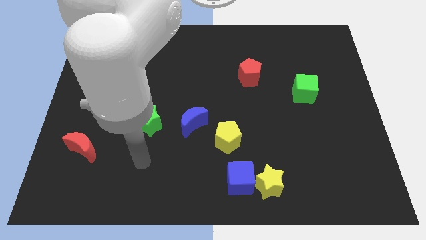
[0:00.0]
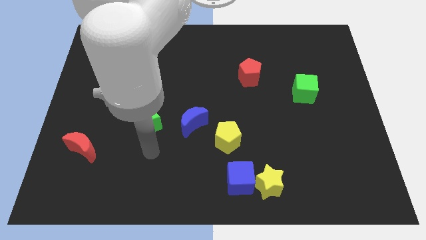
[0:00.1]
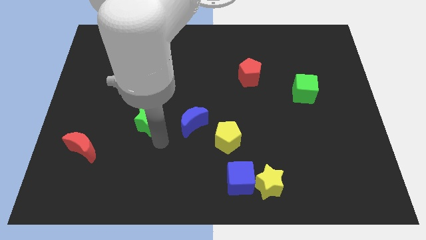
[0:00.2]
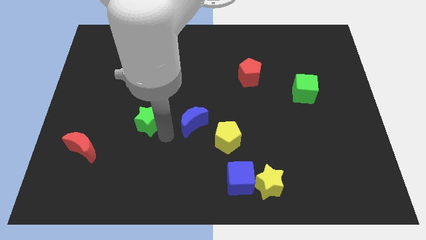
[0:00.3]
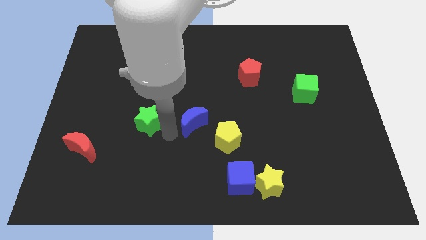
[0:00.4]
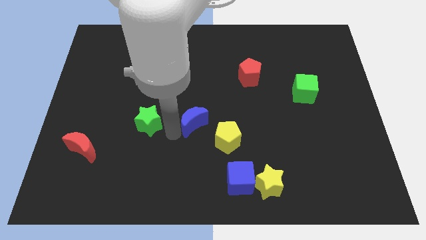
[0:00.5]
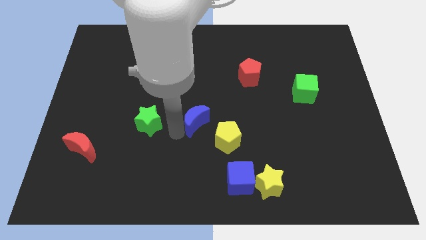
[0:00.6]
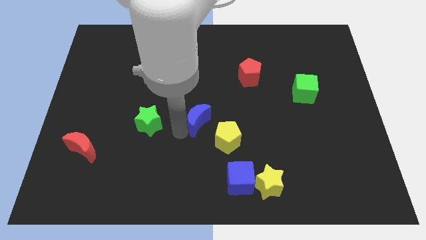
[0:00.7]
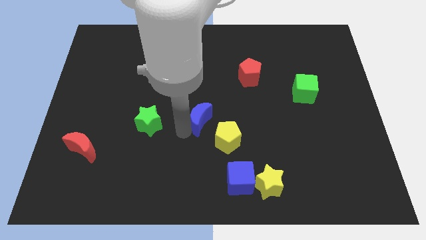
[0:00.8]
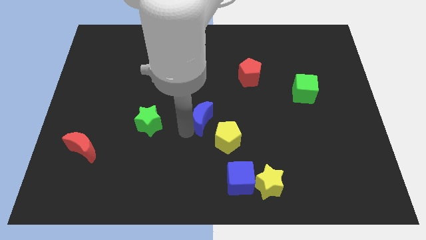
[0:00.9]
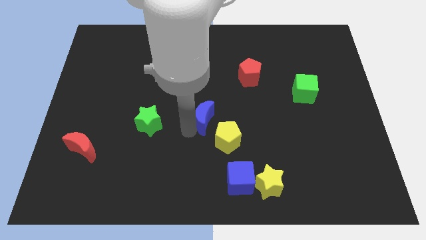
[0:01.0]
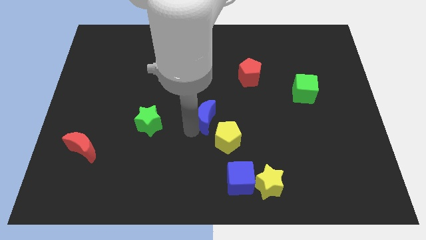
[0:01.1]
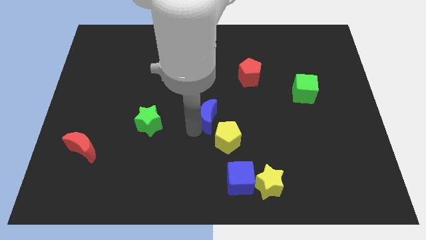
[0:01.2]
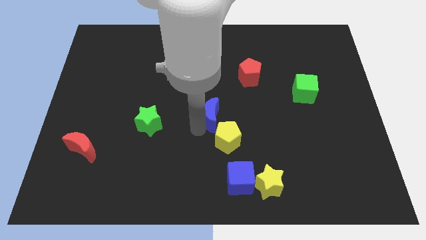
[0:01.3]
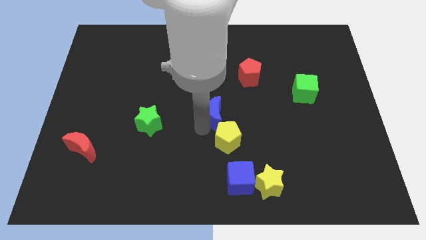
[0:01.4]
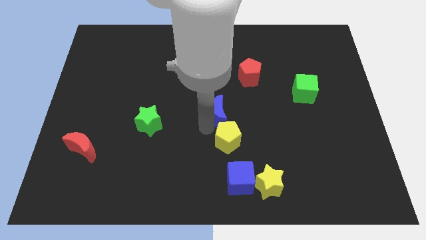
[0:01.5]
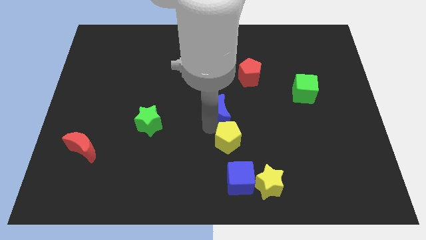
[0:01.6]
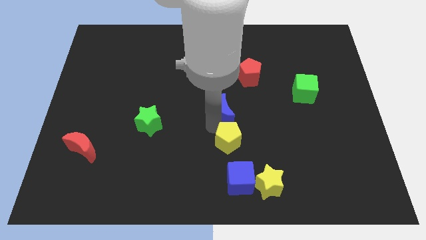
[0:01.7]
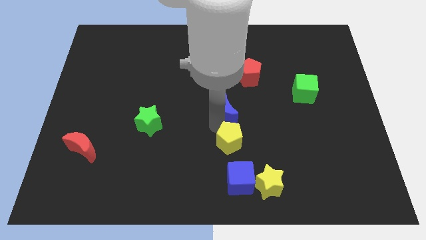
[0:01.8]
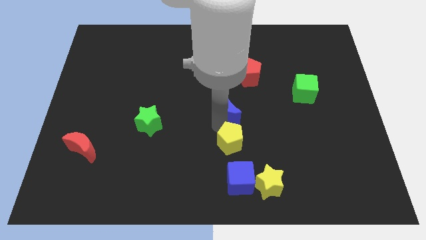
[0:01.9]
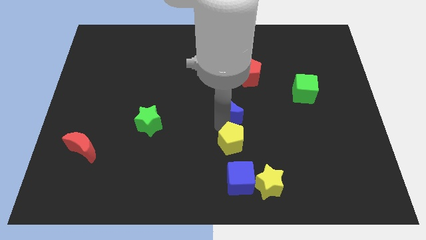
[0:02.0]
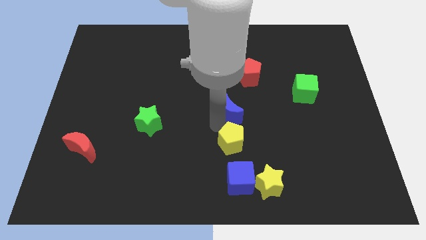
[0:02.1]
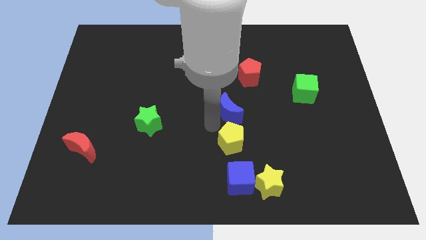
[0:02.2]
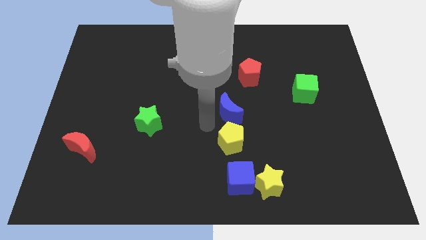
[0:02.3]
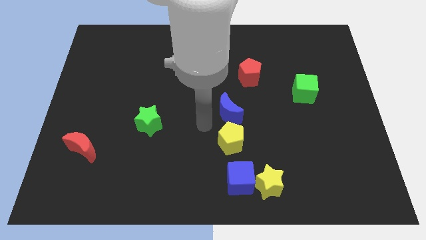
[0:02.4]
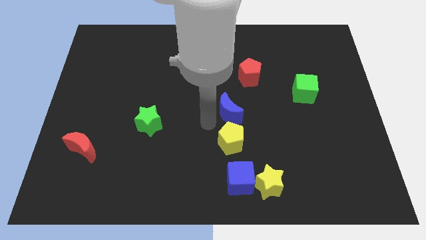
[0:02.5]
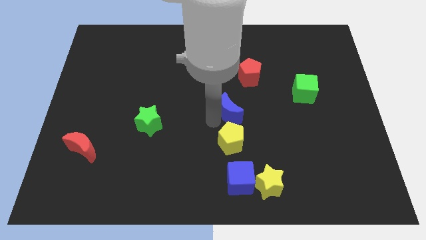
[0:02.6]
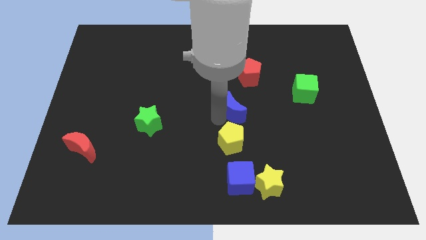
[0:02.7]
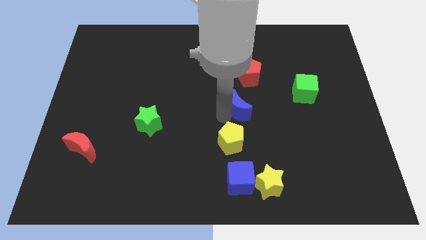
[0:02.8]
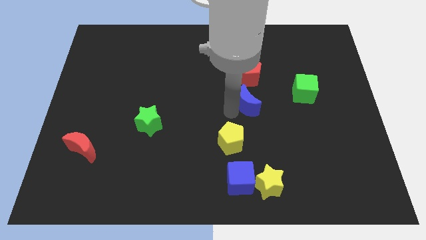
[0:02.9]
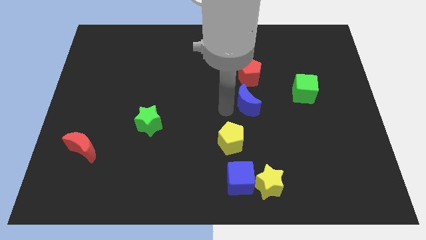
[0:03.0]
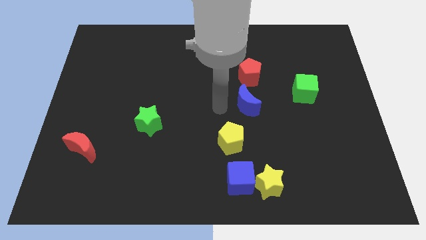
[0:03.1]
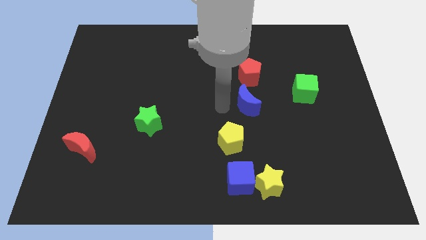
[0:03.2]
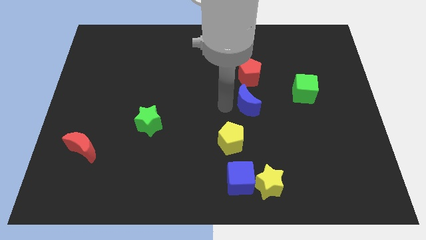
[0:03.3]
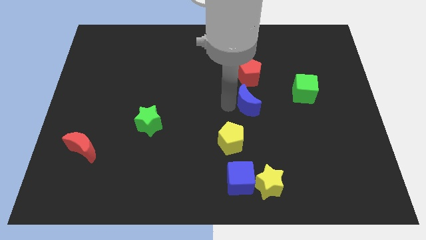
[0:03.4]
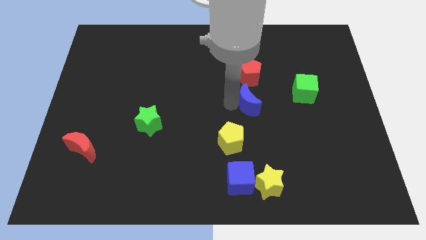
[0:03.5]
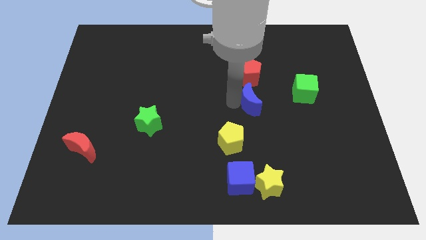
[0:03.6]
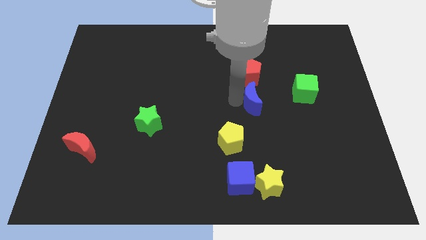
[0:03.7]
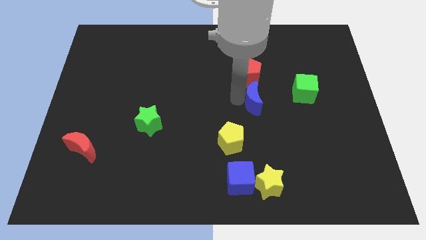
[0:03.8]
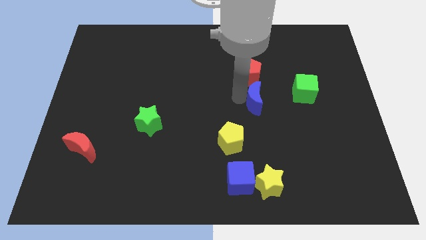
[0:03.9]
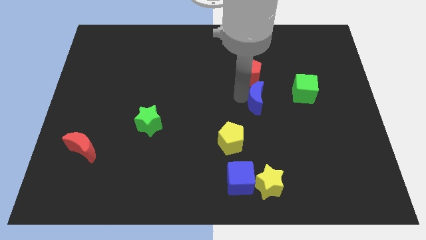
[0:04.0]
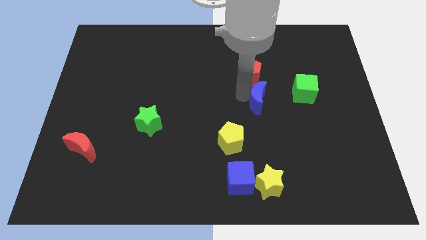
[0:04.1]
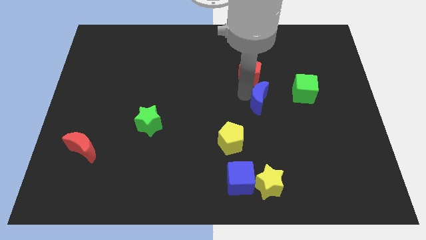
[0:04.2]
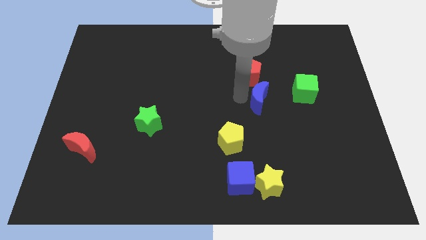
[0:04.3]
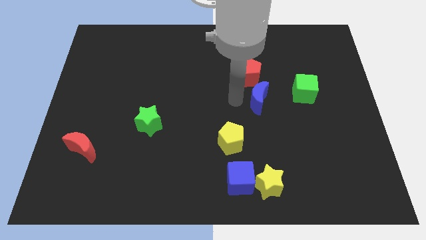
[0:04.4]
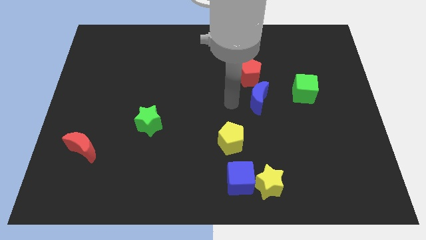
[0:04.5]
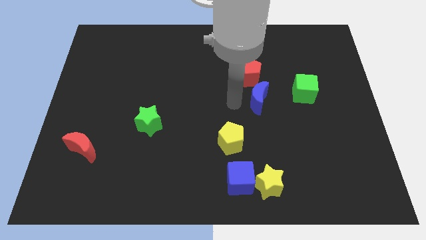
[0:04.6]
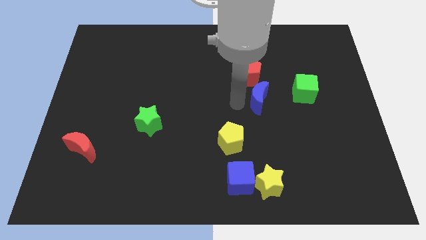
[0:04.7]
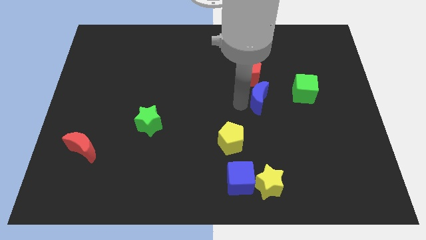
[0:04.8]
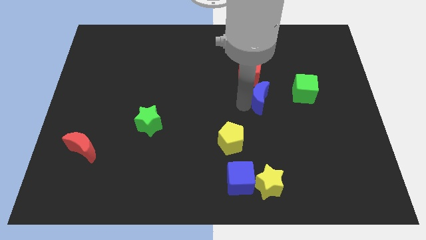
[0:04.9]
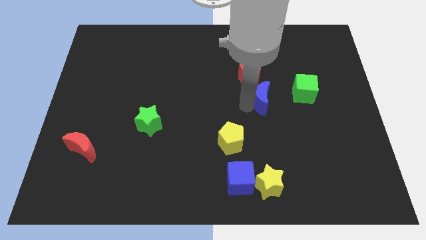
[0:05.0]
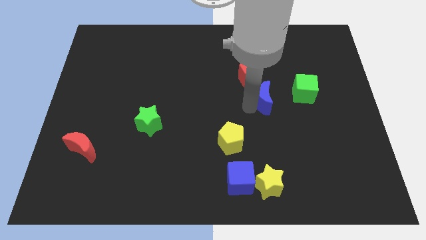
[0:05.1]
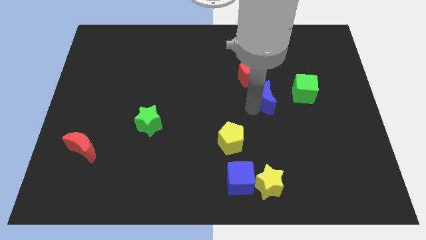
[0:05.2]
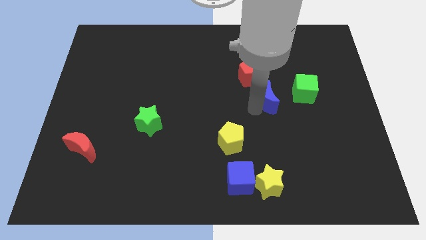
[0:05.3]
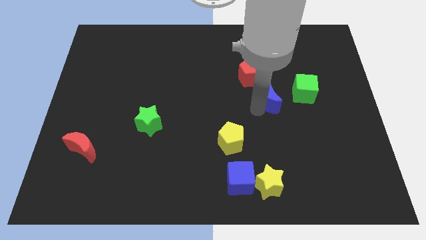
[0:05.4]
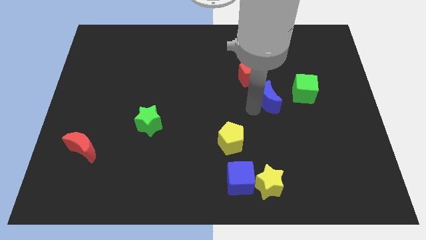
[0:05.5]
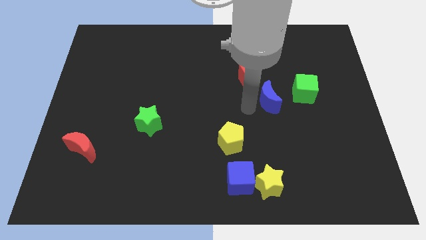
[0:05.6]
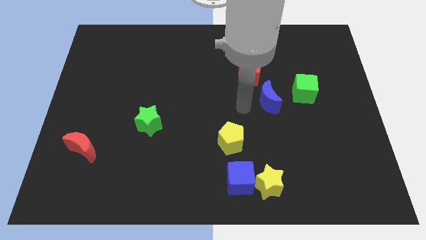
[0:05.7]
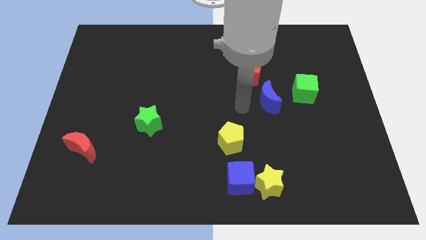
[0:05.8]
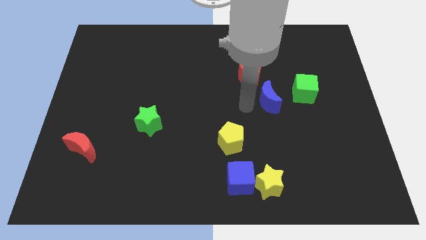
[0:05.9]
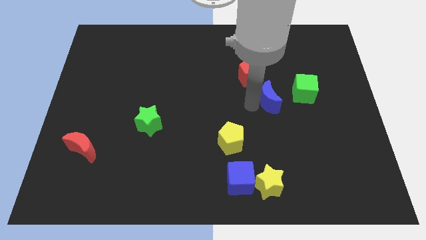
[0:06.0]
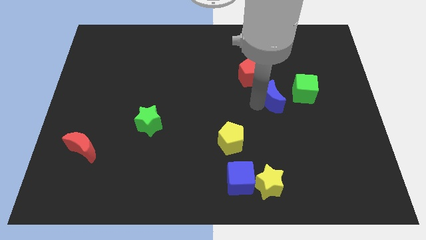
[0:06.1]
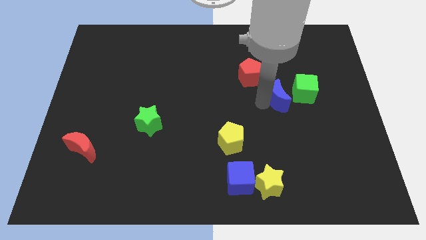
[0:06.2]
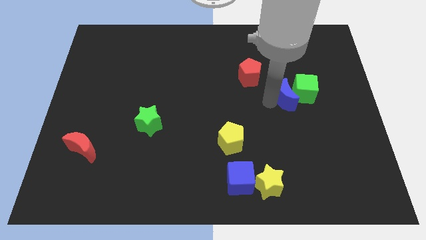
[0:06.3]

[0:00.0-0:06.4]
put the blue moon to the green cube

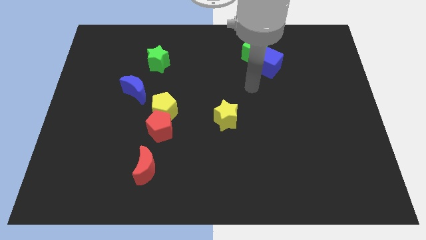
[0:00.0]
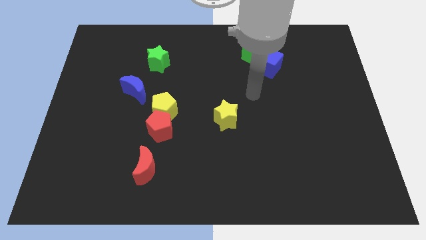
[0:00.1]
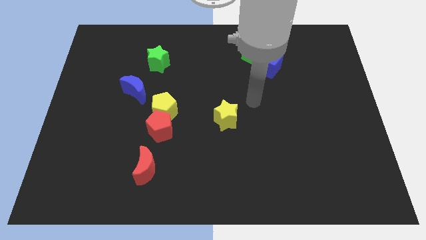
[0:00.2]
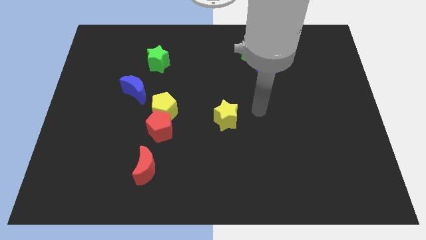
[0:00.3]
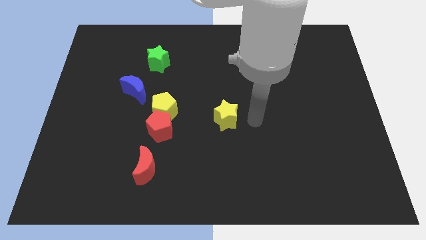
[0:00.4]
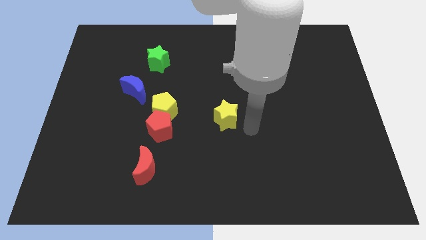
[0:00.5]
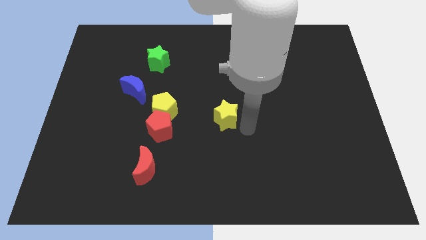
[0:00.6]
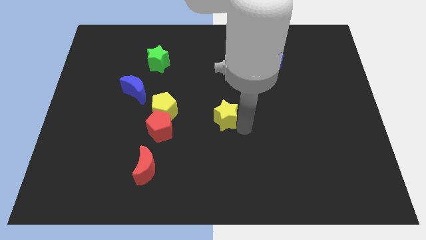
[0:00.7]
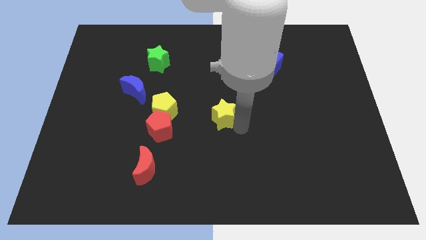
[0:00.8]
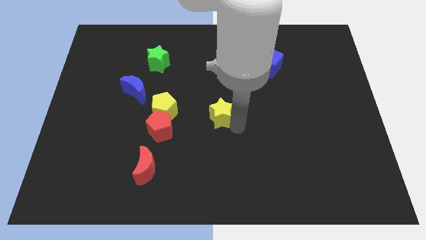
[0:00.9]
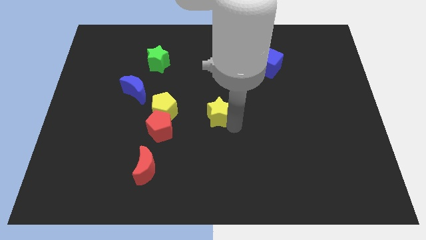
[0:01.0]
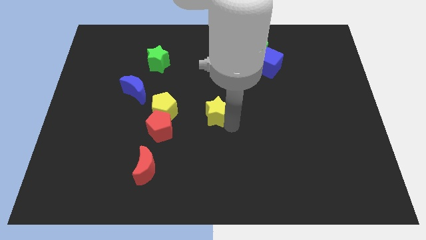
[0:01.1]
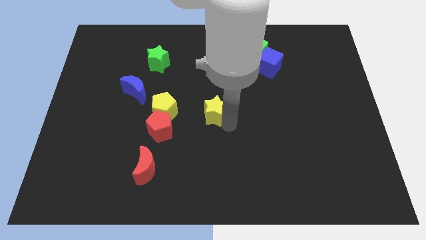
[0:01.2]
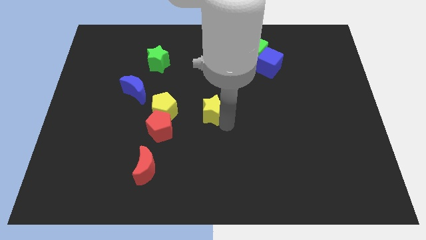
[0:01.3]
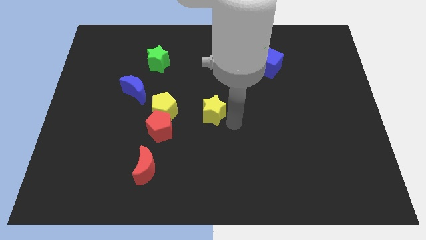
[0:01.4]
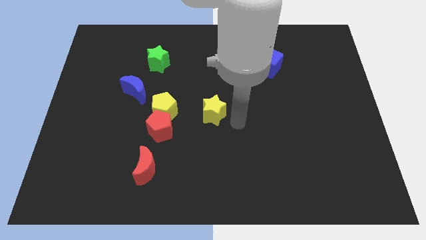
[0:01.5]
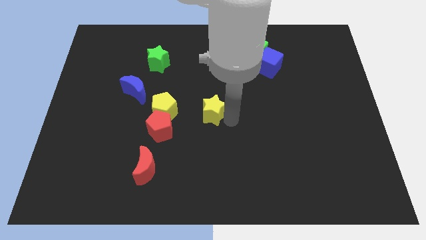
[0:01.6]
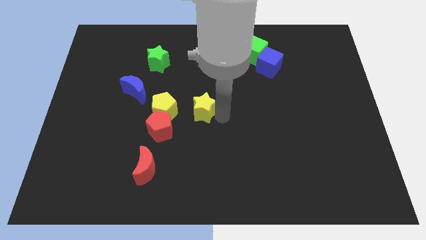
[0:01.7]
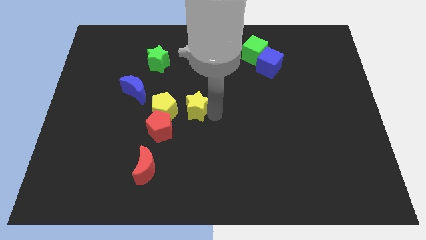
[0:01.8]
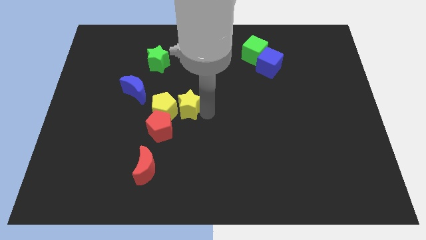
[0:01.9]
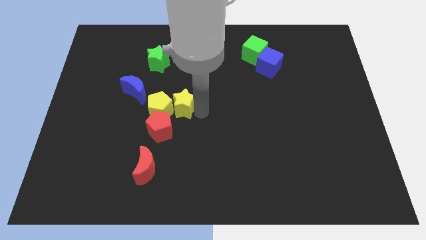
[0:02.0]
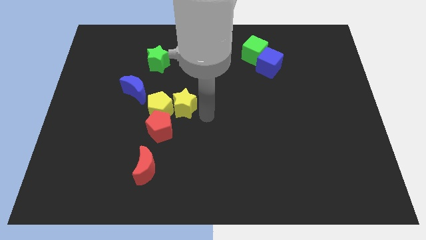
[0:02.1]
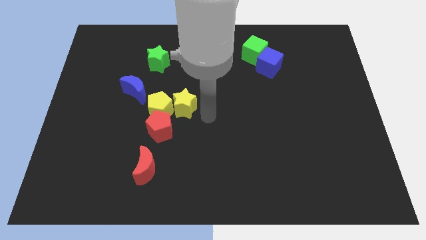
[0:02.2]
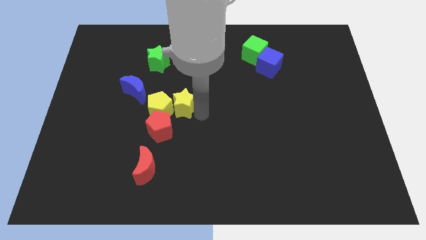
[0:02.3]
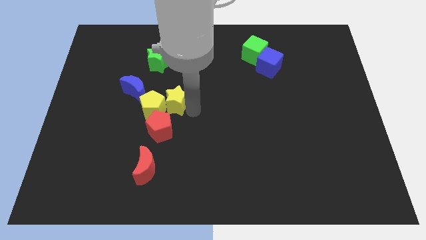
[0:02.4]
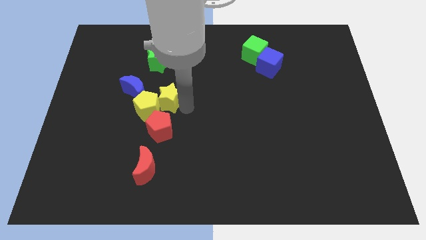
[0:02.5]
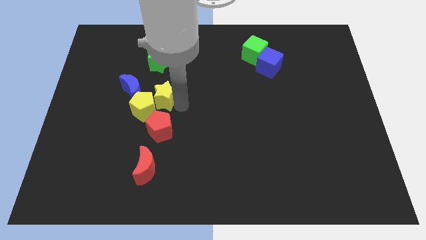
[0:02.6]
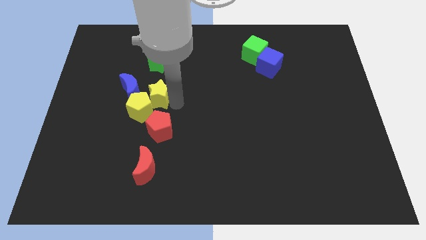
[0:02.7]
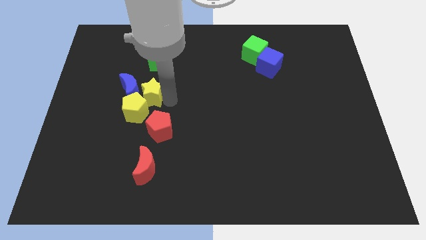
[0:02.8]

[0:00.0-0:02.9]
move the yellow star to the blue moon
